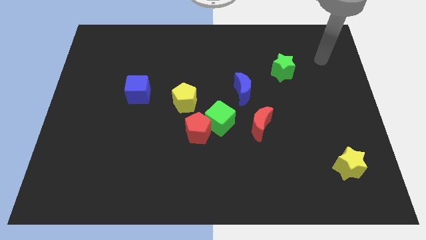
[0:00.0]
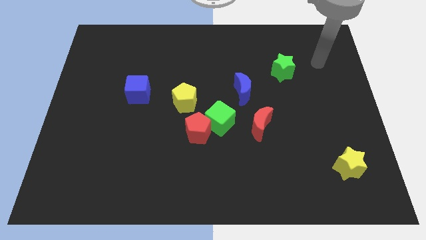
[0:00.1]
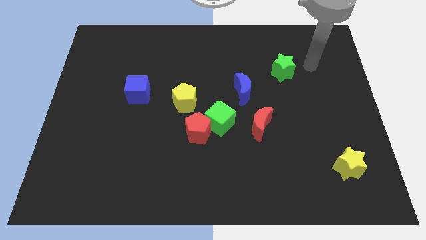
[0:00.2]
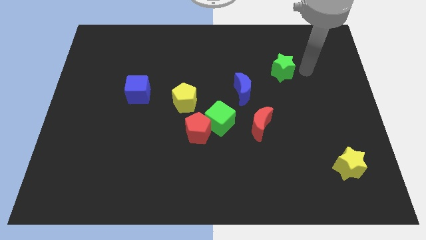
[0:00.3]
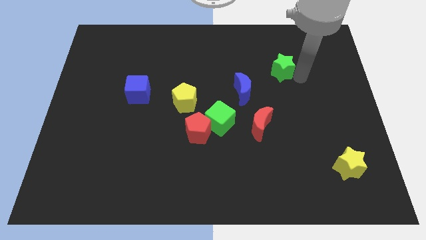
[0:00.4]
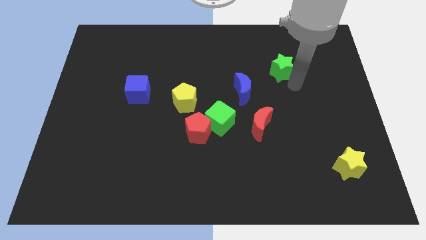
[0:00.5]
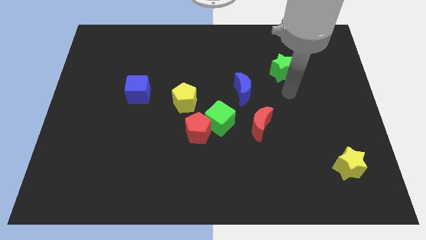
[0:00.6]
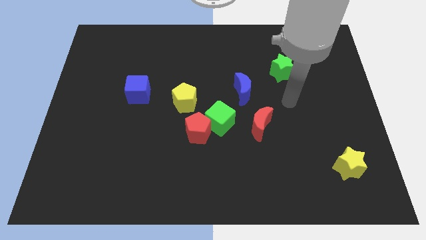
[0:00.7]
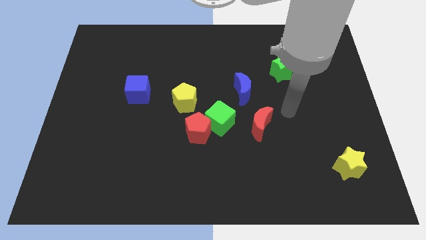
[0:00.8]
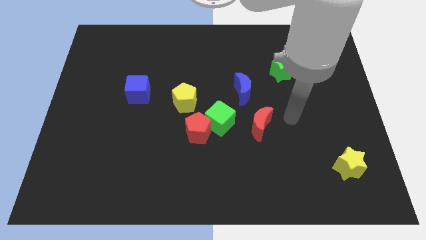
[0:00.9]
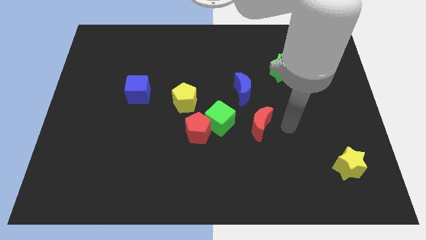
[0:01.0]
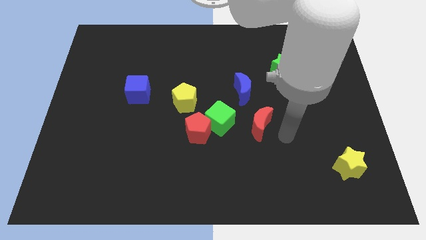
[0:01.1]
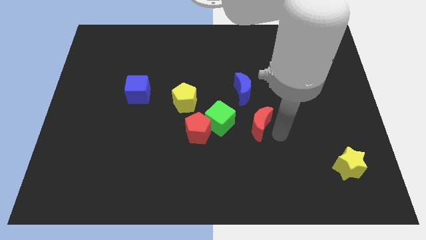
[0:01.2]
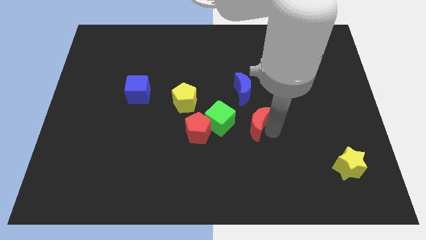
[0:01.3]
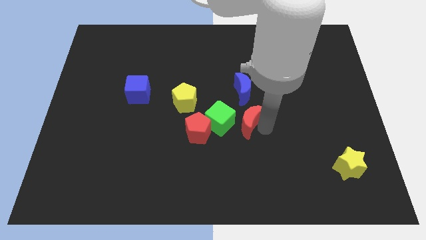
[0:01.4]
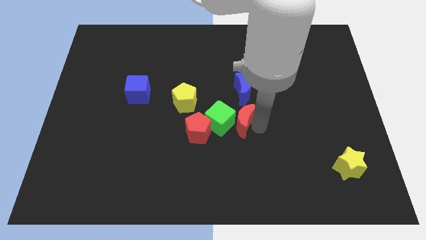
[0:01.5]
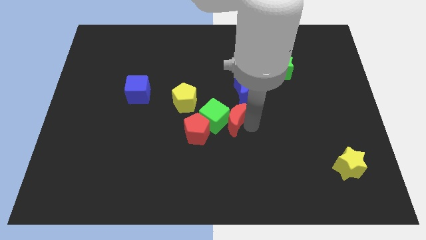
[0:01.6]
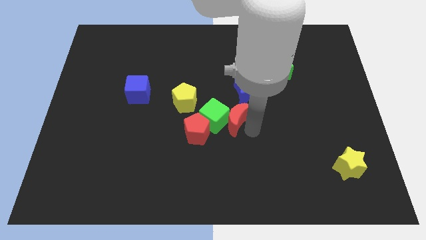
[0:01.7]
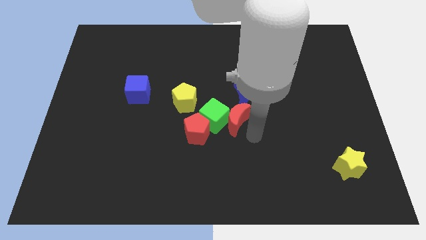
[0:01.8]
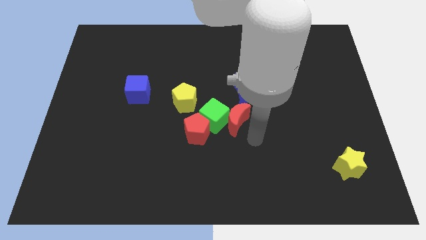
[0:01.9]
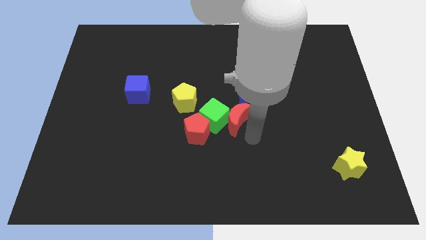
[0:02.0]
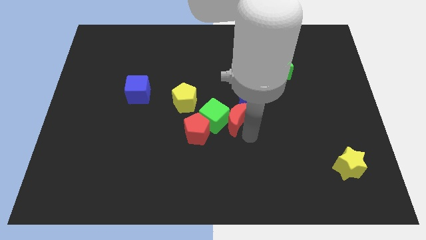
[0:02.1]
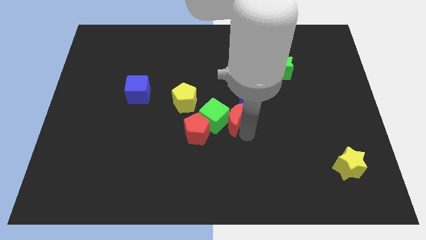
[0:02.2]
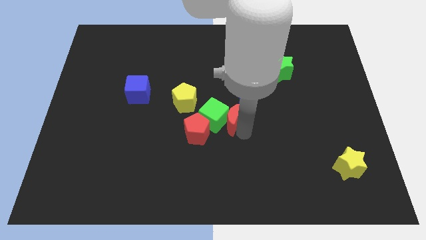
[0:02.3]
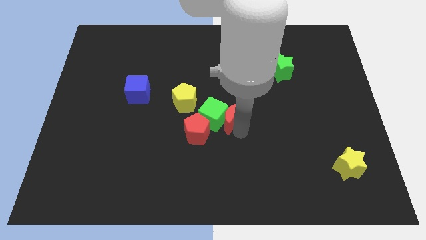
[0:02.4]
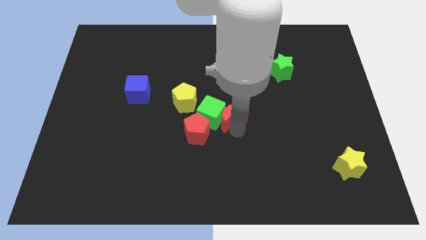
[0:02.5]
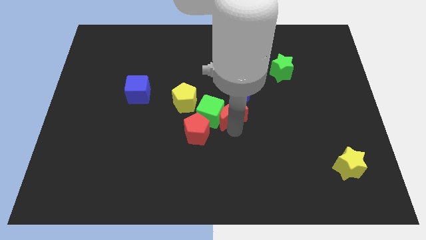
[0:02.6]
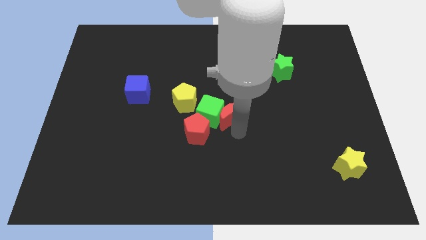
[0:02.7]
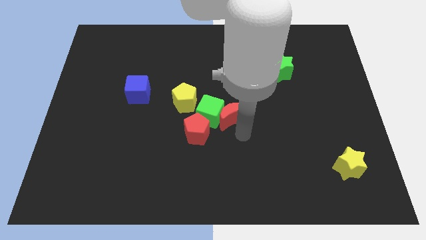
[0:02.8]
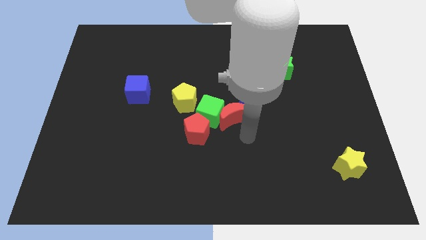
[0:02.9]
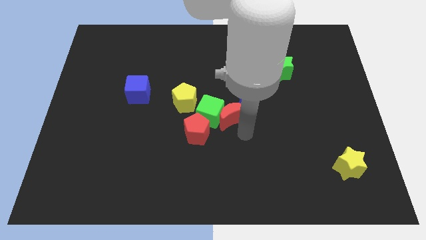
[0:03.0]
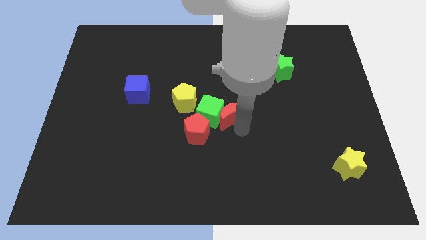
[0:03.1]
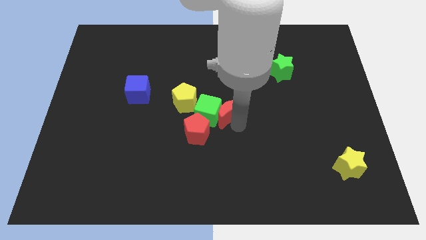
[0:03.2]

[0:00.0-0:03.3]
slightly slide the red moon diagonally upwards and to the left

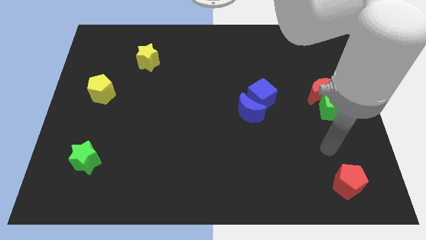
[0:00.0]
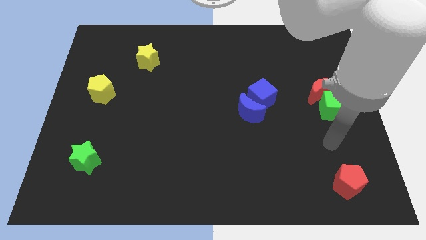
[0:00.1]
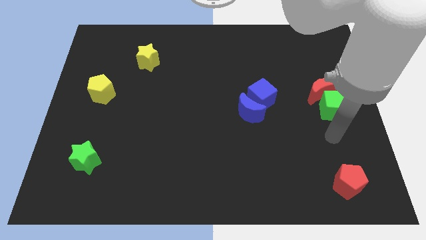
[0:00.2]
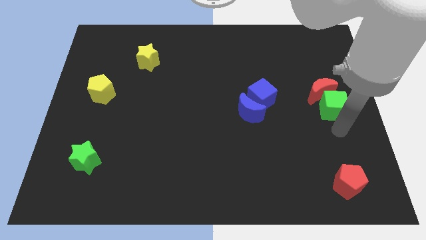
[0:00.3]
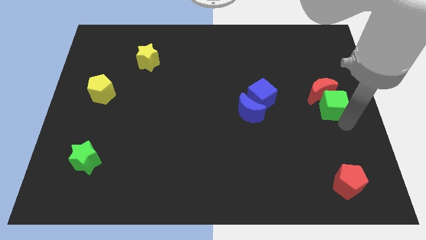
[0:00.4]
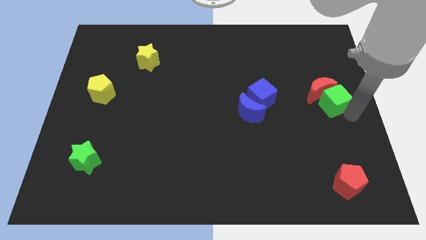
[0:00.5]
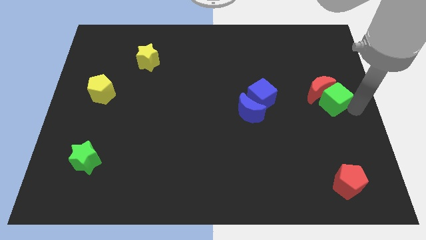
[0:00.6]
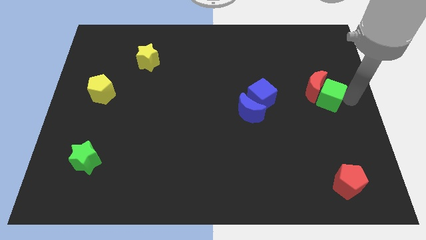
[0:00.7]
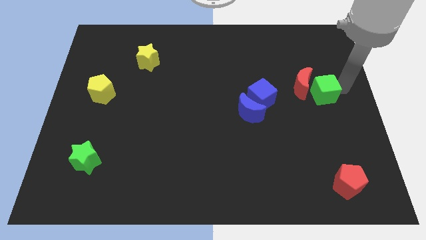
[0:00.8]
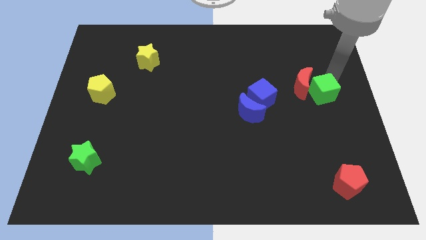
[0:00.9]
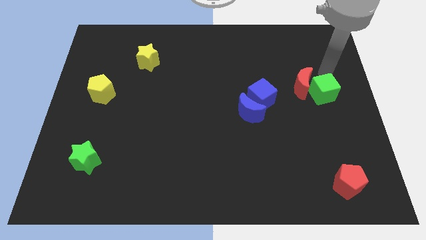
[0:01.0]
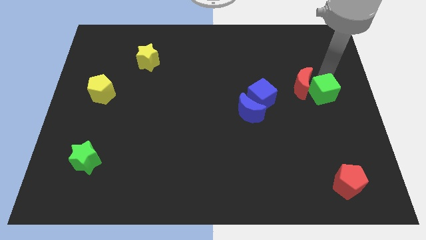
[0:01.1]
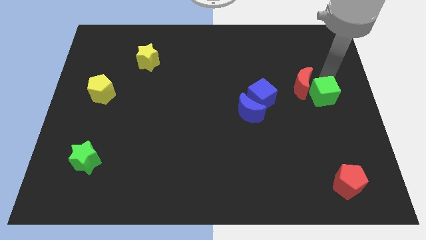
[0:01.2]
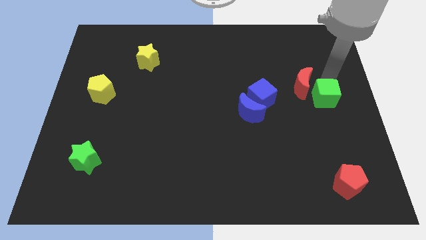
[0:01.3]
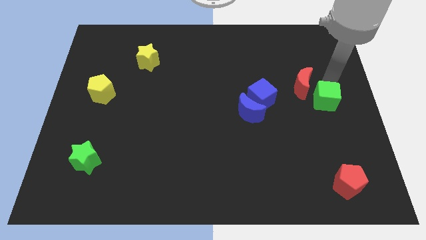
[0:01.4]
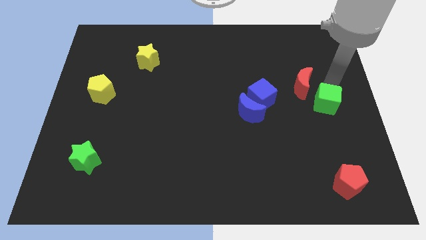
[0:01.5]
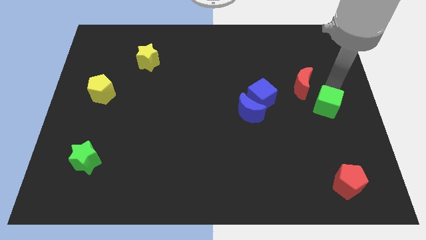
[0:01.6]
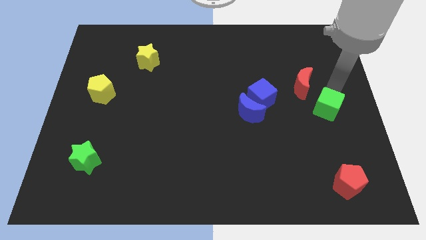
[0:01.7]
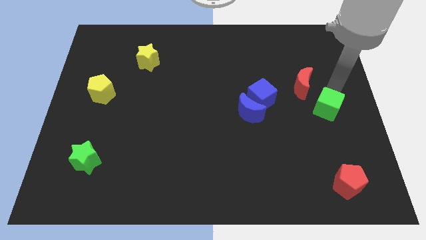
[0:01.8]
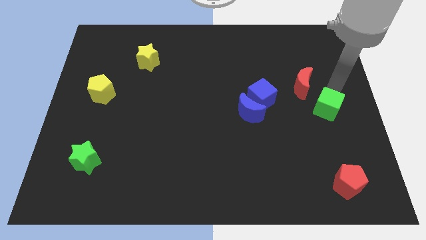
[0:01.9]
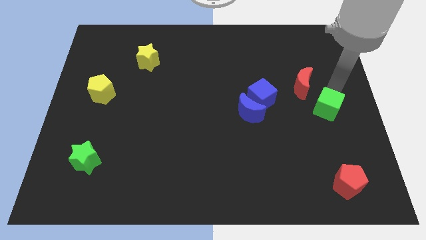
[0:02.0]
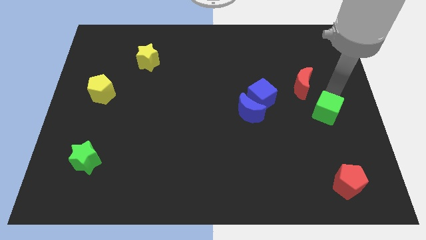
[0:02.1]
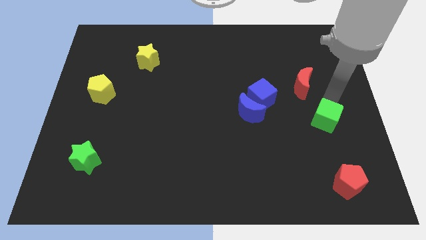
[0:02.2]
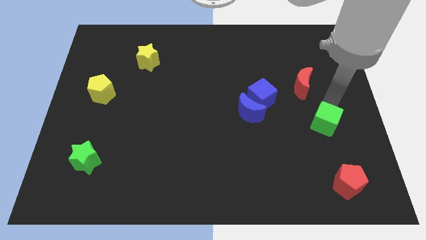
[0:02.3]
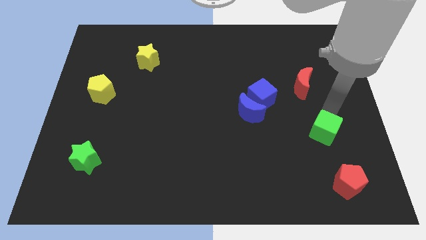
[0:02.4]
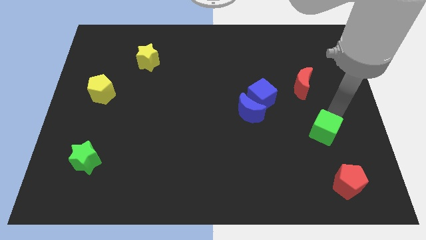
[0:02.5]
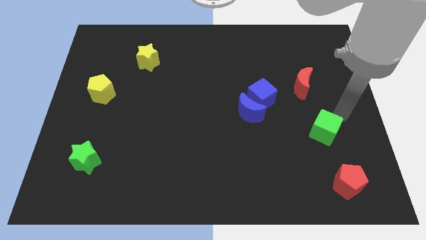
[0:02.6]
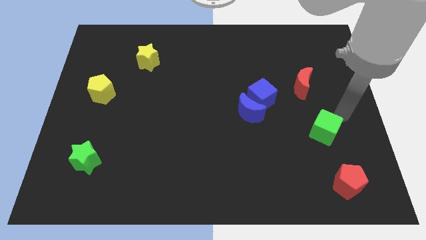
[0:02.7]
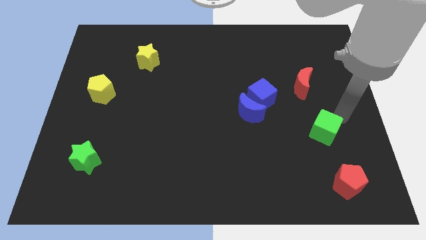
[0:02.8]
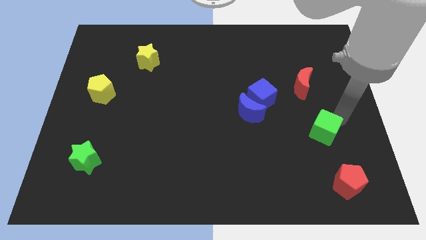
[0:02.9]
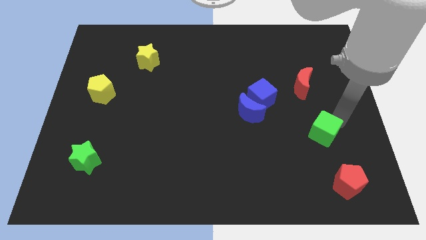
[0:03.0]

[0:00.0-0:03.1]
push the green cube downwards and left a little

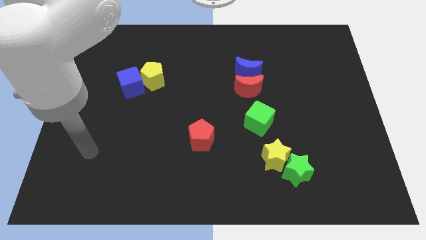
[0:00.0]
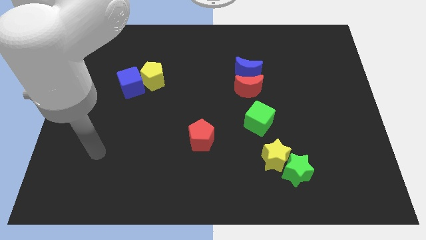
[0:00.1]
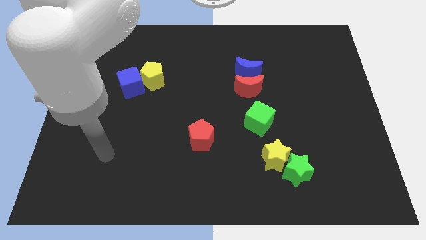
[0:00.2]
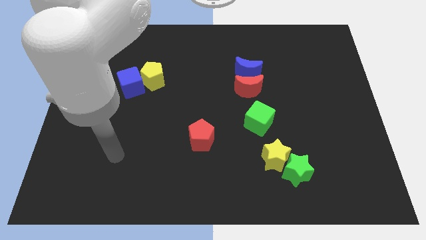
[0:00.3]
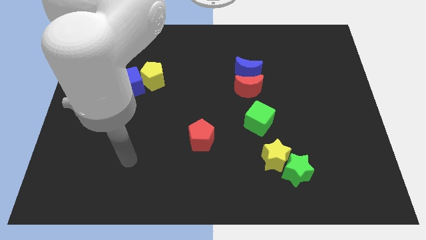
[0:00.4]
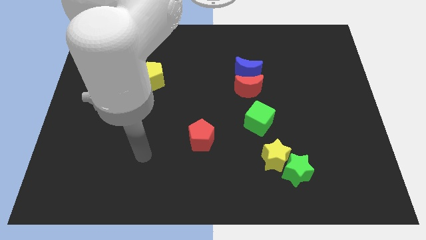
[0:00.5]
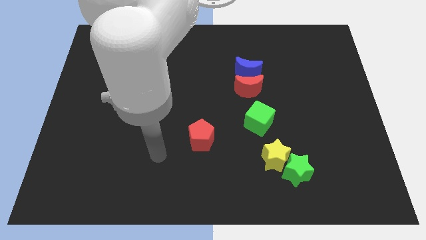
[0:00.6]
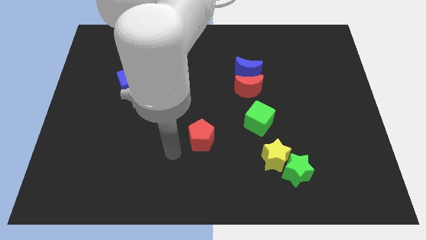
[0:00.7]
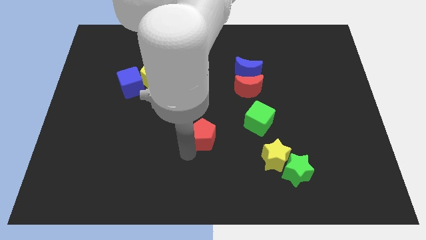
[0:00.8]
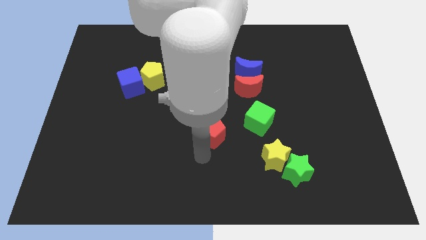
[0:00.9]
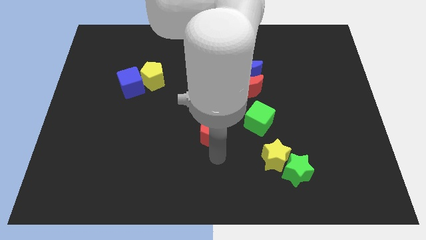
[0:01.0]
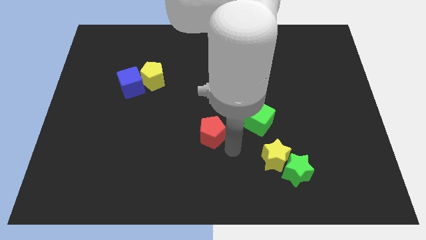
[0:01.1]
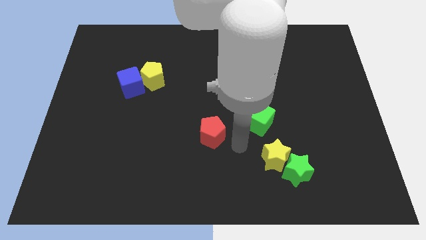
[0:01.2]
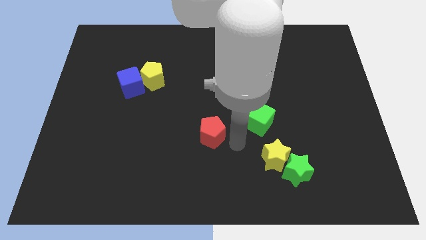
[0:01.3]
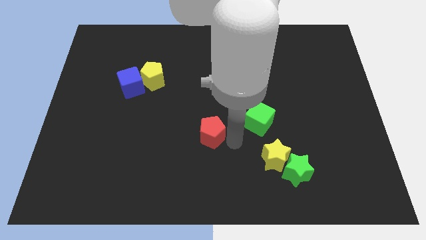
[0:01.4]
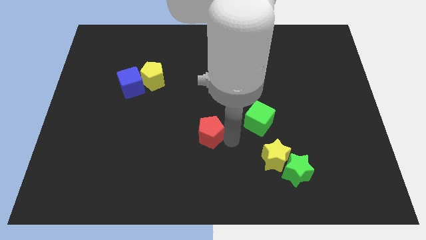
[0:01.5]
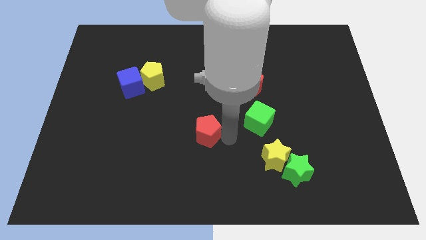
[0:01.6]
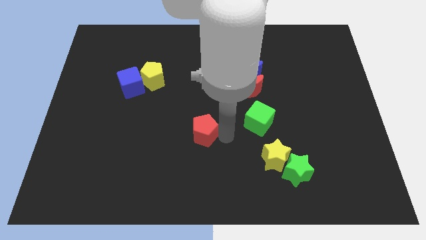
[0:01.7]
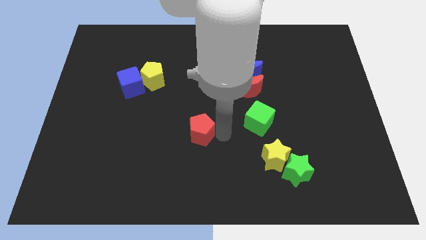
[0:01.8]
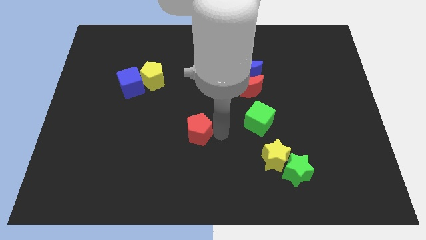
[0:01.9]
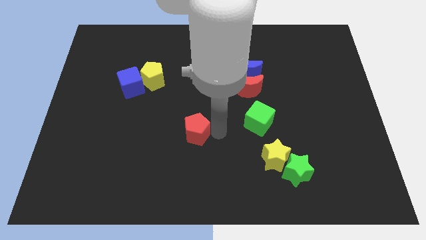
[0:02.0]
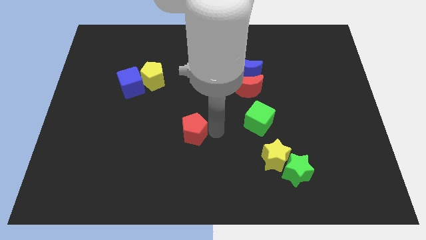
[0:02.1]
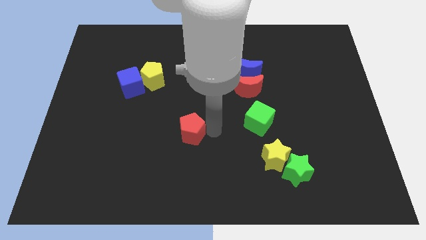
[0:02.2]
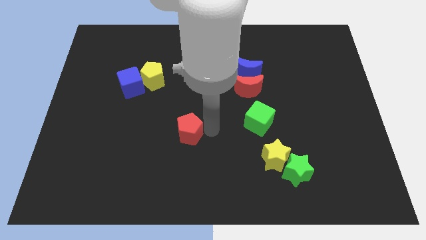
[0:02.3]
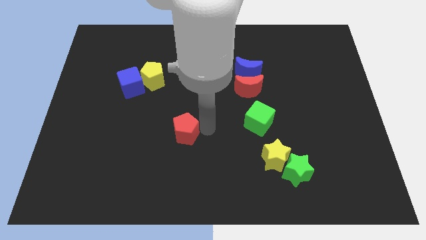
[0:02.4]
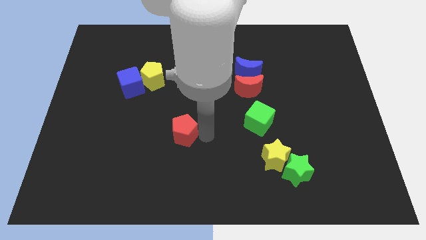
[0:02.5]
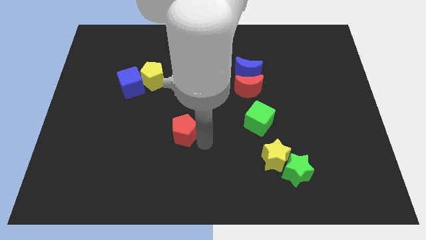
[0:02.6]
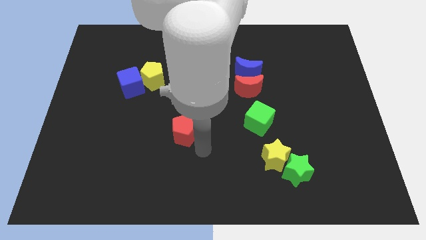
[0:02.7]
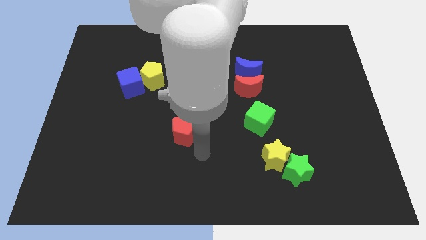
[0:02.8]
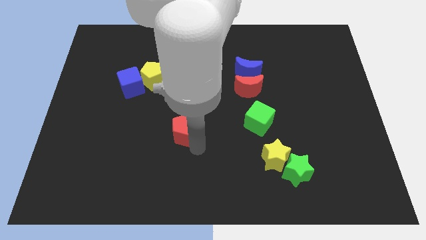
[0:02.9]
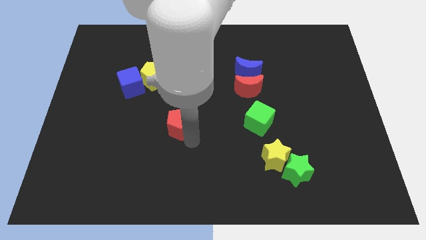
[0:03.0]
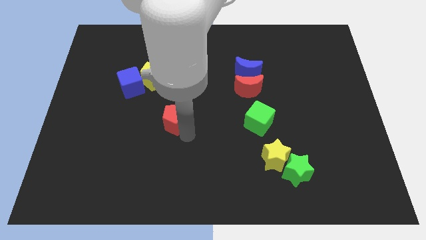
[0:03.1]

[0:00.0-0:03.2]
slide the red pentagon up and left a little bit
